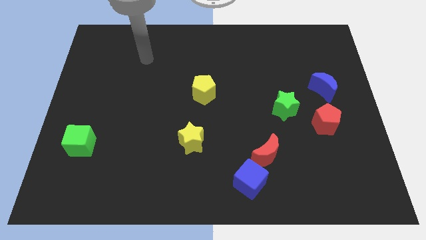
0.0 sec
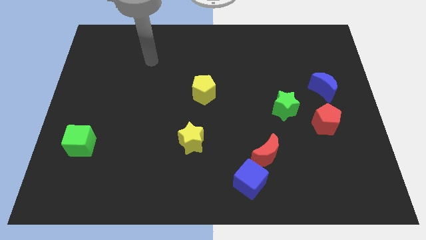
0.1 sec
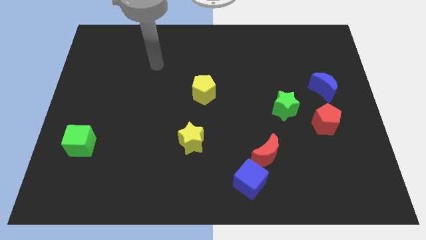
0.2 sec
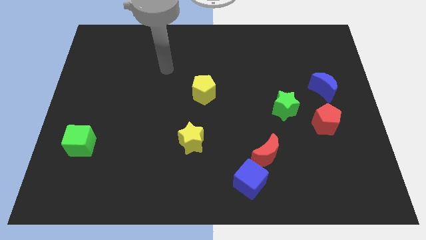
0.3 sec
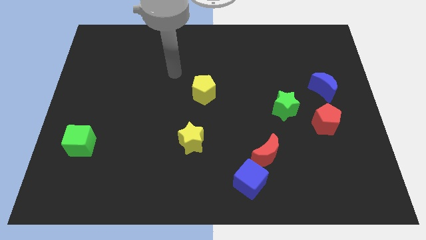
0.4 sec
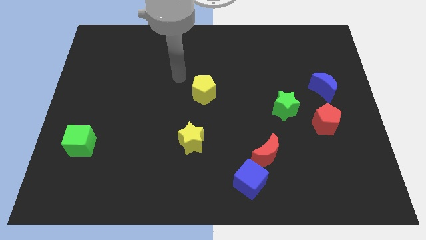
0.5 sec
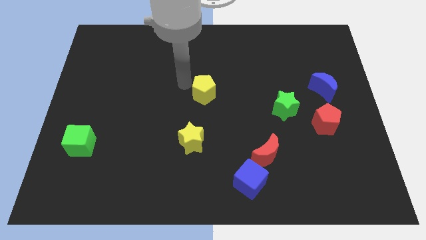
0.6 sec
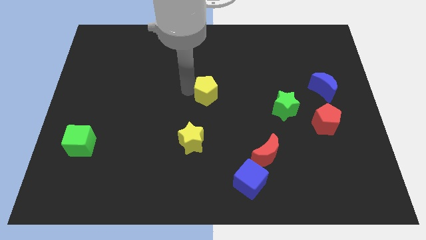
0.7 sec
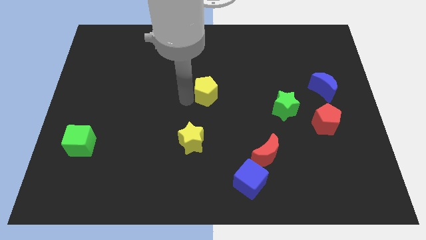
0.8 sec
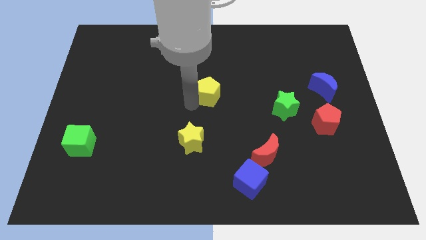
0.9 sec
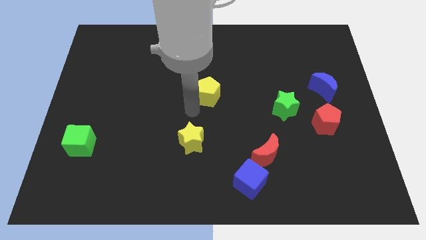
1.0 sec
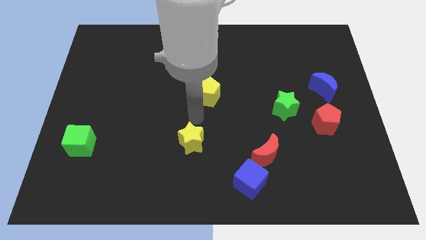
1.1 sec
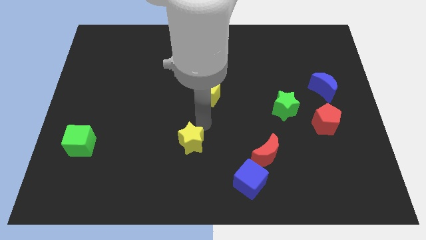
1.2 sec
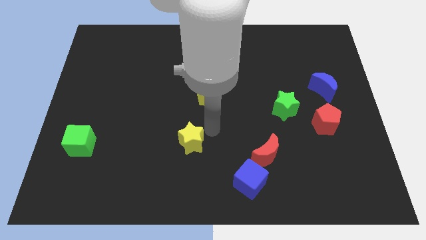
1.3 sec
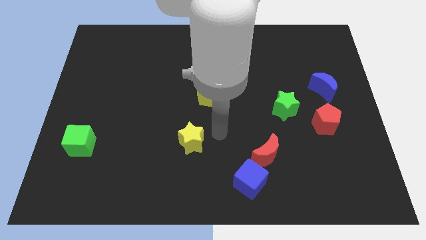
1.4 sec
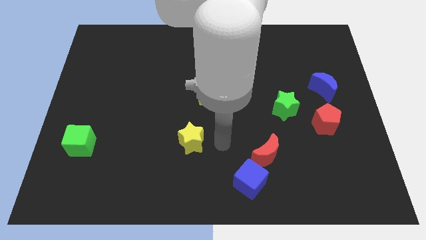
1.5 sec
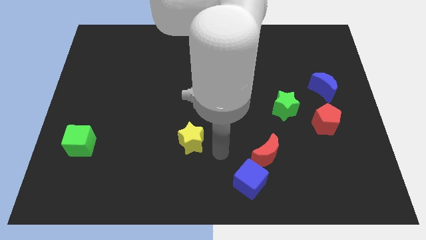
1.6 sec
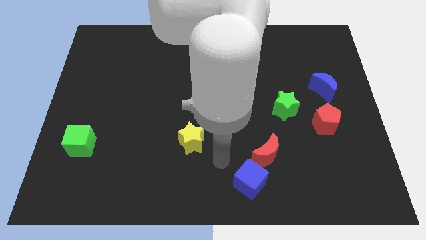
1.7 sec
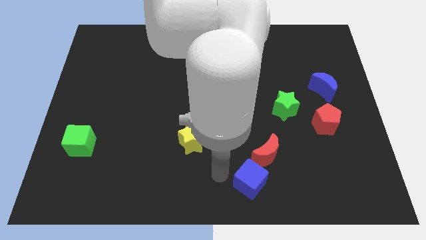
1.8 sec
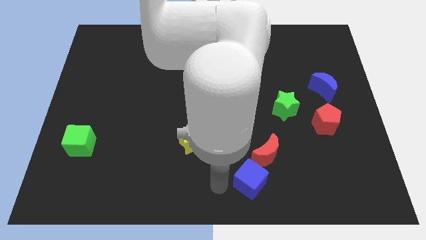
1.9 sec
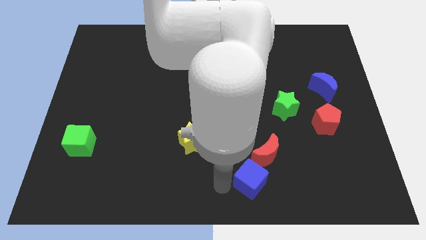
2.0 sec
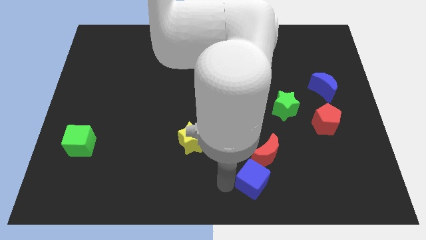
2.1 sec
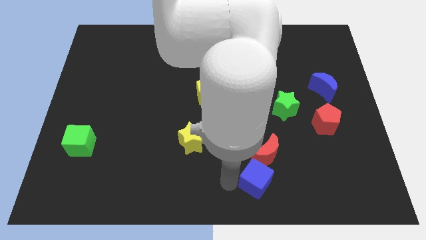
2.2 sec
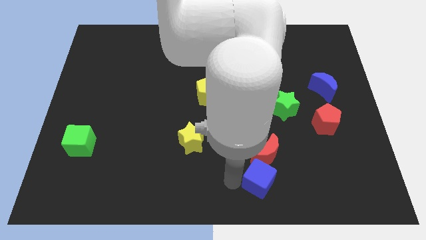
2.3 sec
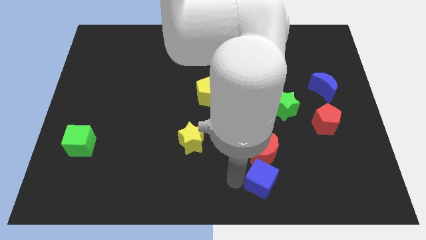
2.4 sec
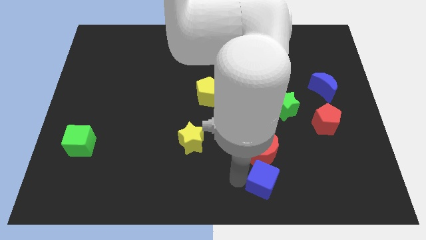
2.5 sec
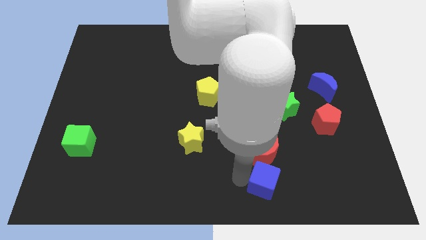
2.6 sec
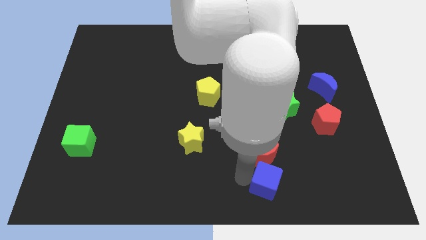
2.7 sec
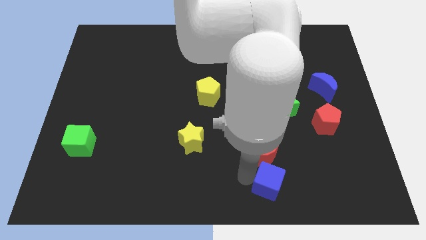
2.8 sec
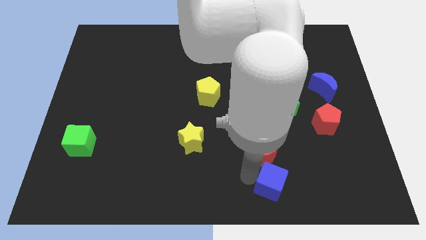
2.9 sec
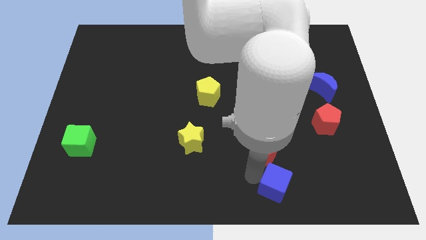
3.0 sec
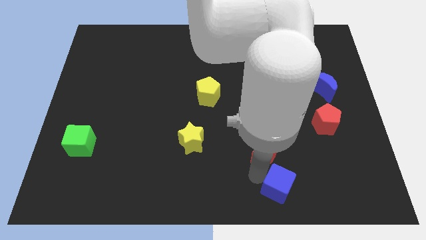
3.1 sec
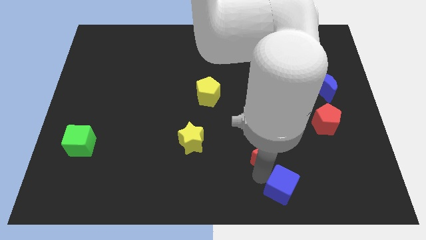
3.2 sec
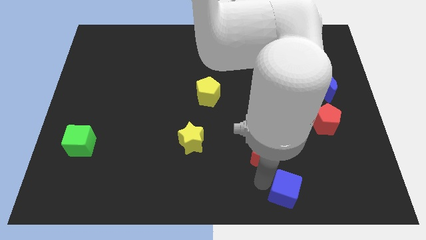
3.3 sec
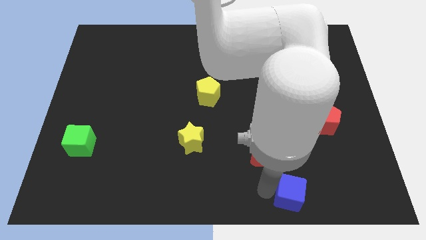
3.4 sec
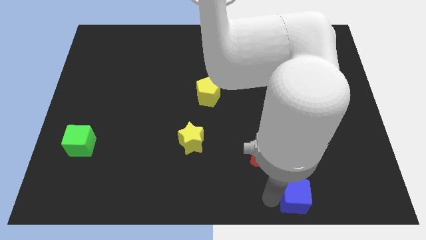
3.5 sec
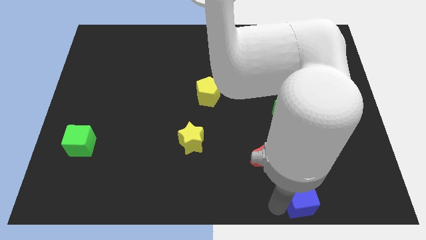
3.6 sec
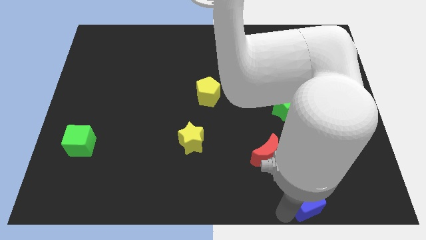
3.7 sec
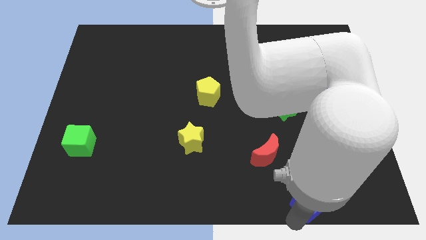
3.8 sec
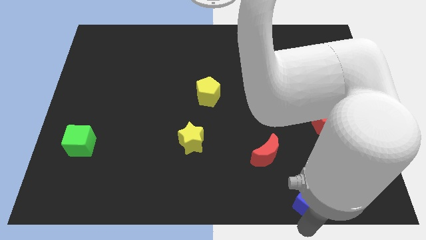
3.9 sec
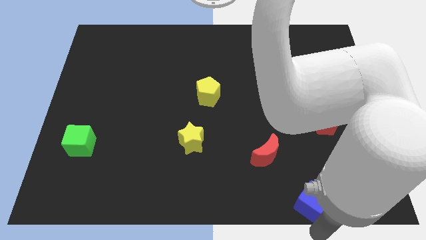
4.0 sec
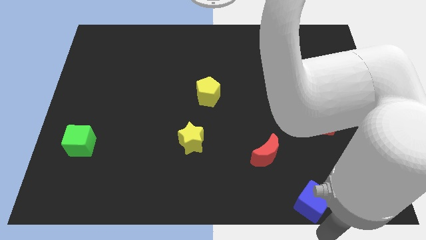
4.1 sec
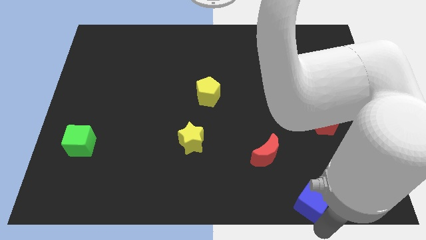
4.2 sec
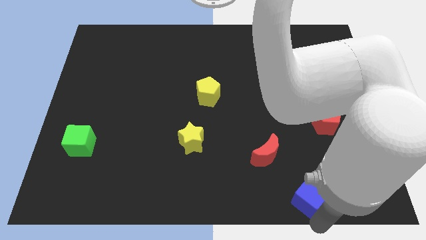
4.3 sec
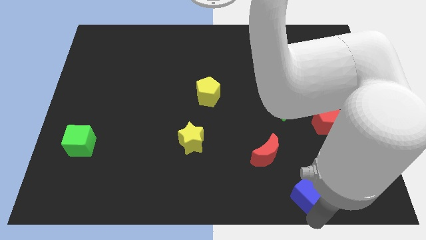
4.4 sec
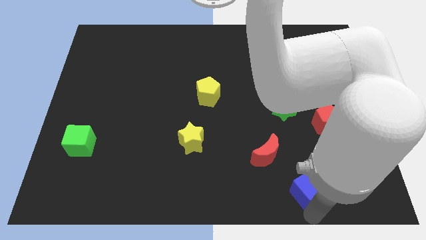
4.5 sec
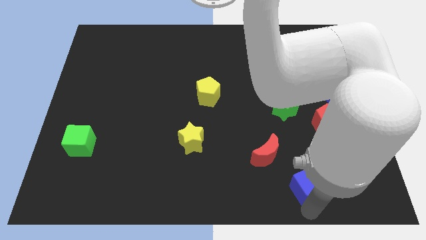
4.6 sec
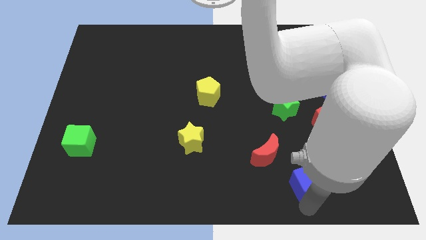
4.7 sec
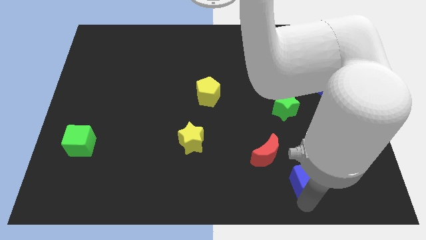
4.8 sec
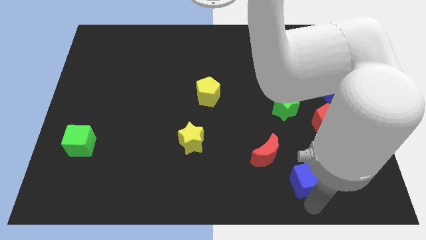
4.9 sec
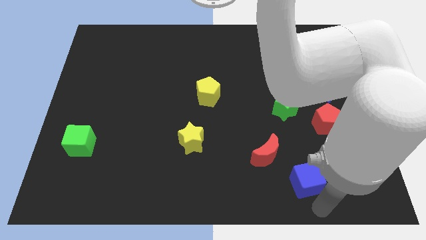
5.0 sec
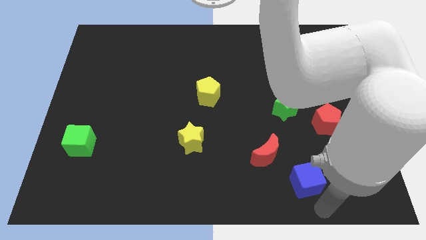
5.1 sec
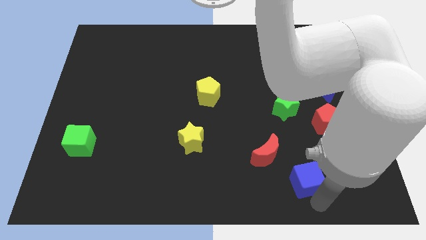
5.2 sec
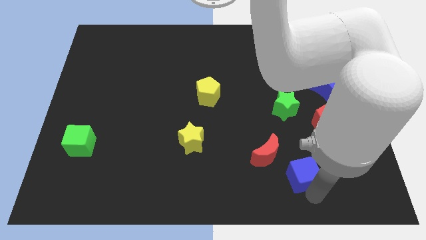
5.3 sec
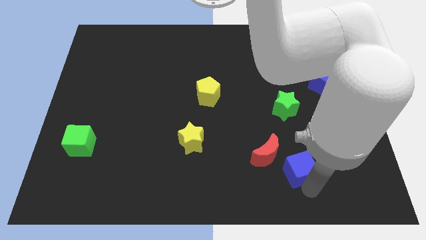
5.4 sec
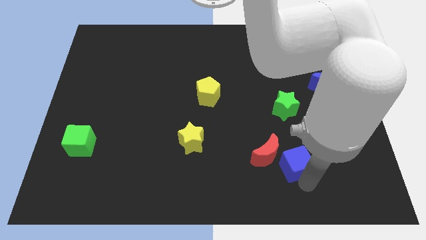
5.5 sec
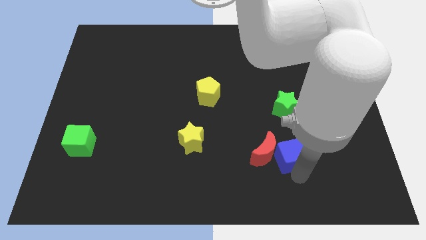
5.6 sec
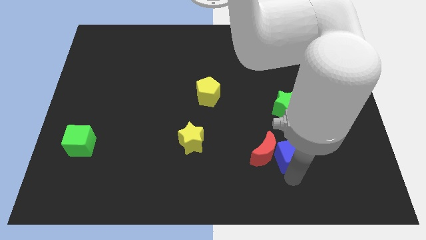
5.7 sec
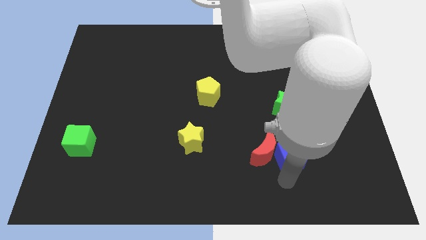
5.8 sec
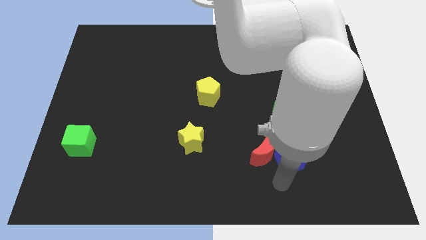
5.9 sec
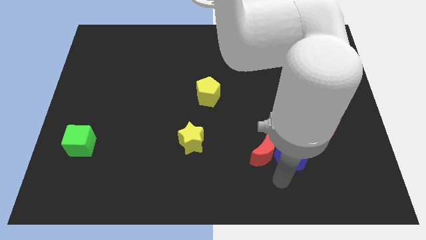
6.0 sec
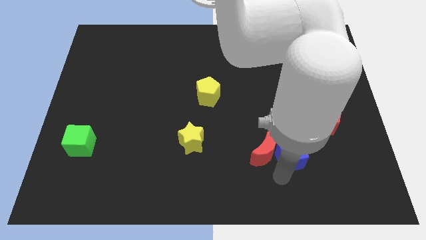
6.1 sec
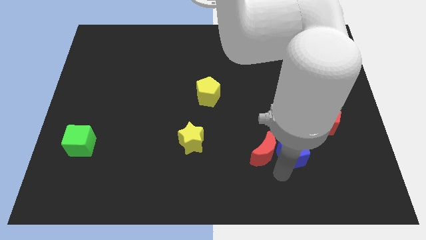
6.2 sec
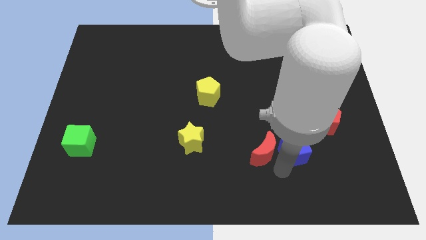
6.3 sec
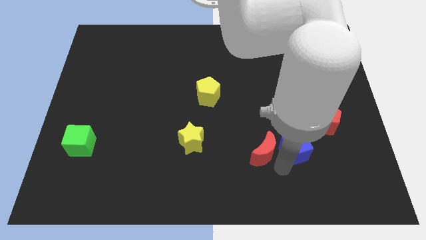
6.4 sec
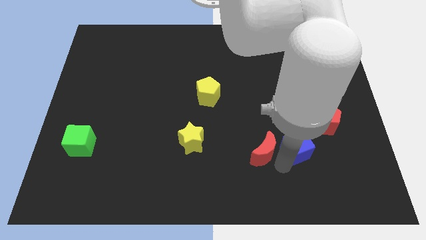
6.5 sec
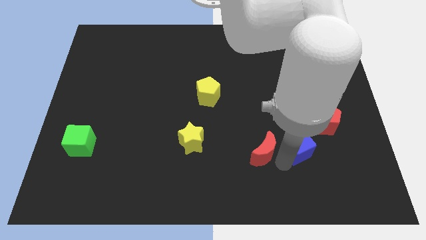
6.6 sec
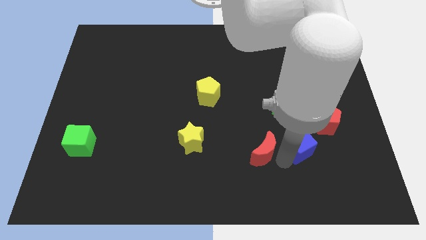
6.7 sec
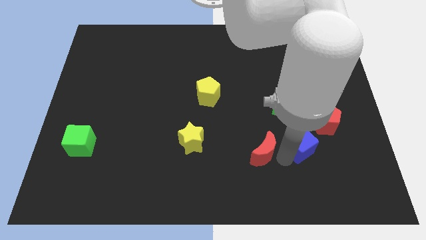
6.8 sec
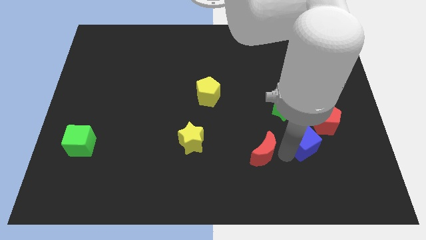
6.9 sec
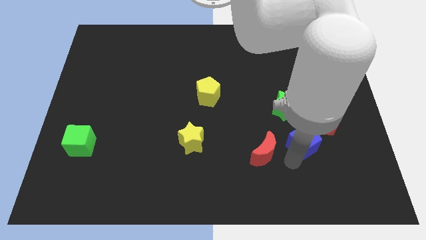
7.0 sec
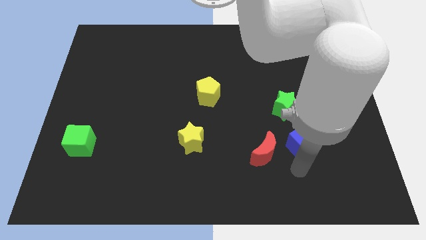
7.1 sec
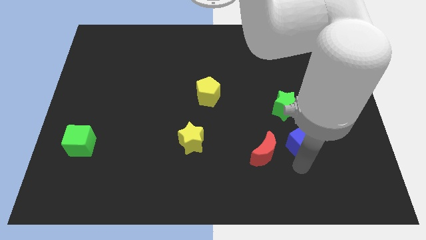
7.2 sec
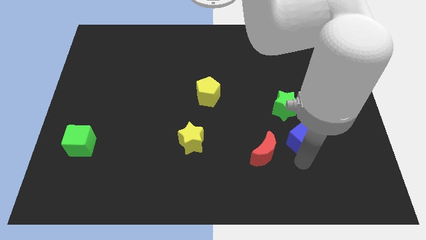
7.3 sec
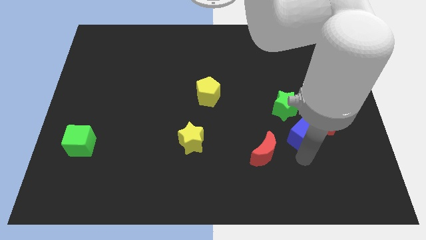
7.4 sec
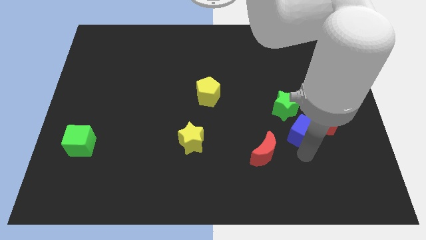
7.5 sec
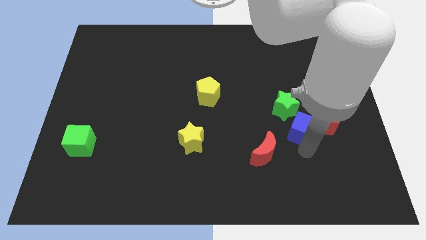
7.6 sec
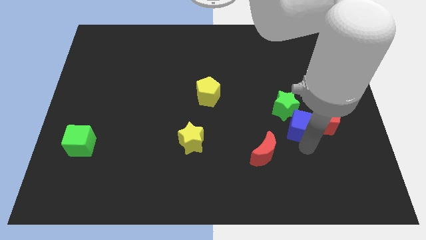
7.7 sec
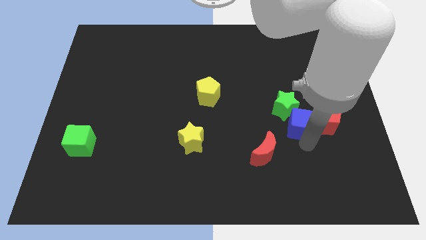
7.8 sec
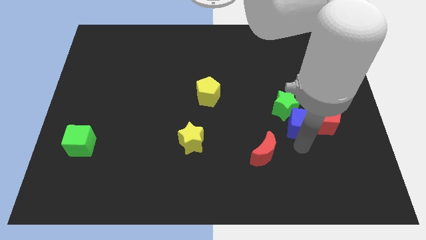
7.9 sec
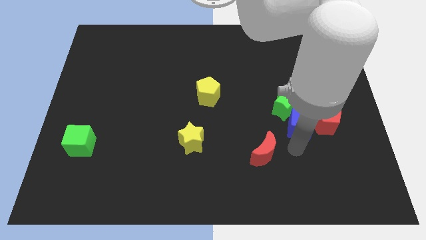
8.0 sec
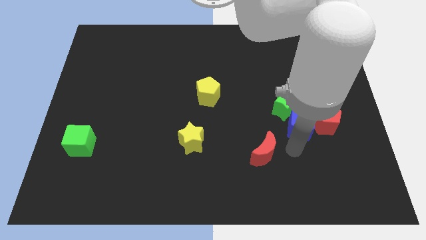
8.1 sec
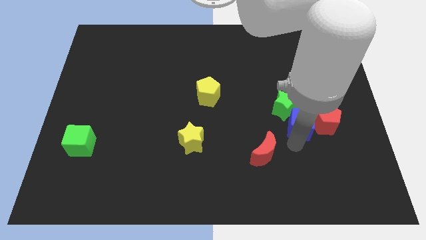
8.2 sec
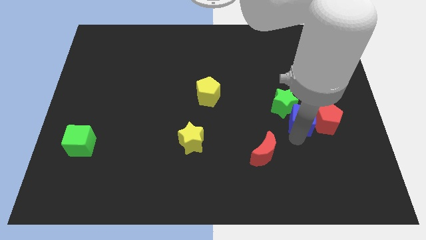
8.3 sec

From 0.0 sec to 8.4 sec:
slide the blue cube to the bottom left of the blue moon
